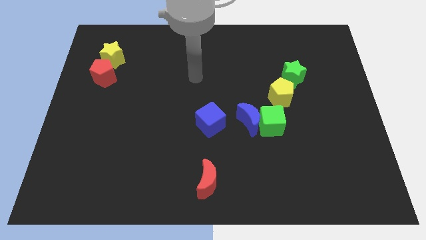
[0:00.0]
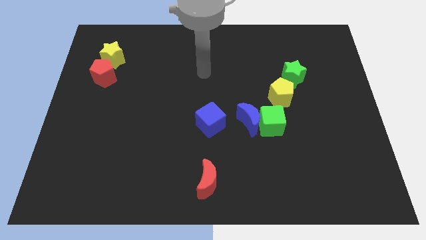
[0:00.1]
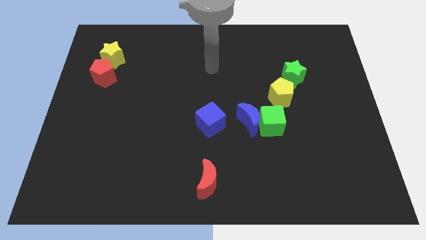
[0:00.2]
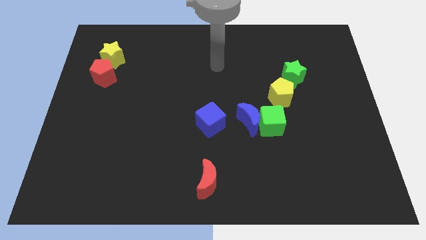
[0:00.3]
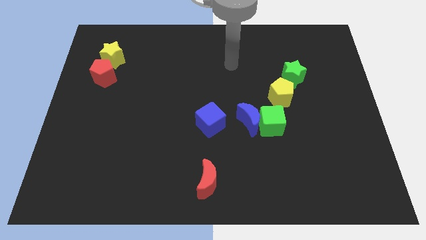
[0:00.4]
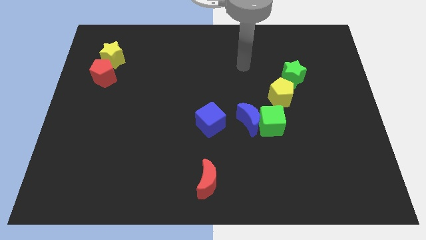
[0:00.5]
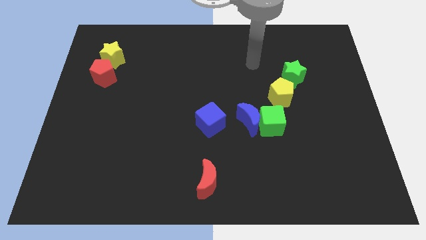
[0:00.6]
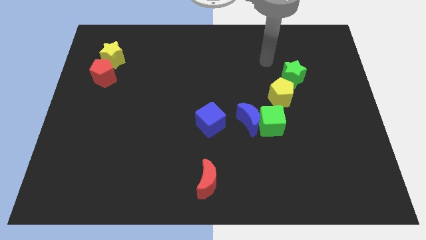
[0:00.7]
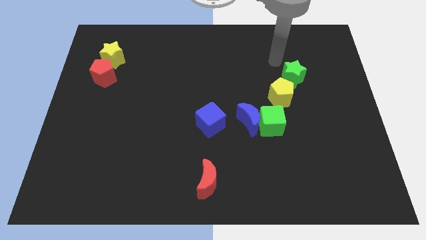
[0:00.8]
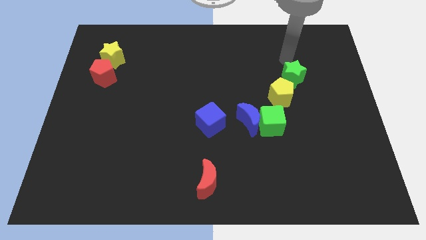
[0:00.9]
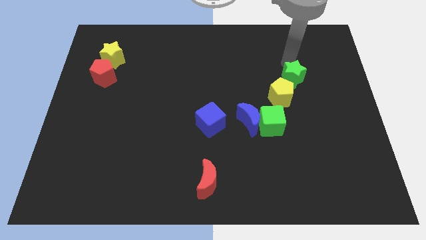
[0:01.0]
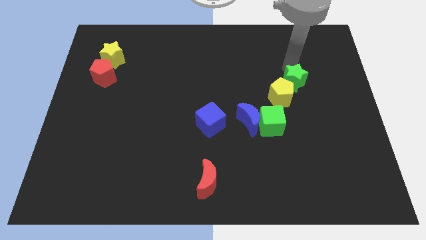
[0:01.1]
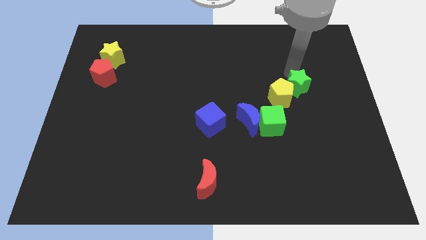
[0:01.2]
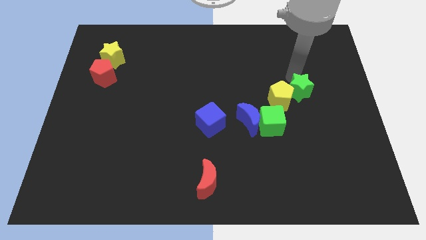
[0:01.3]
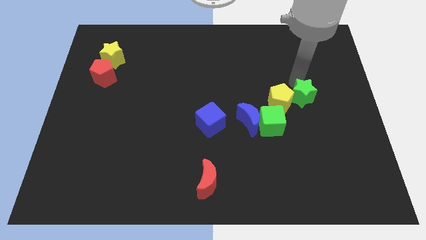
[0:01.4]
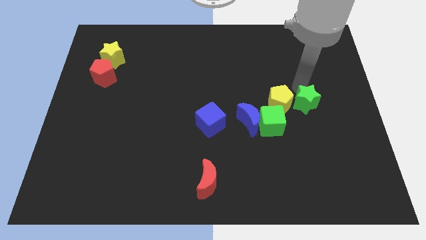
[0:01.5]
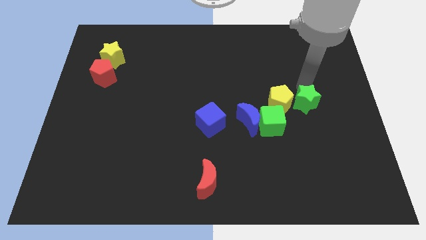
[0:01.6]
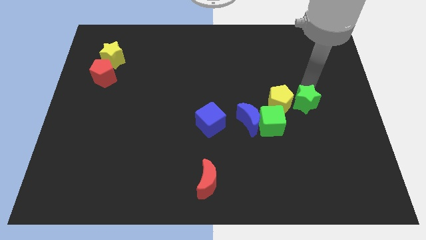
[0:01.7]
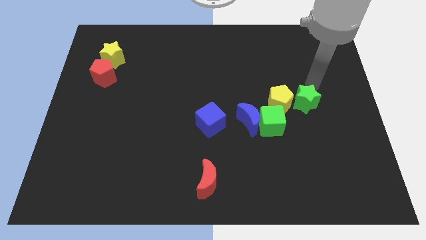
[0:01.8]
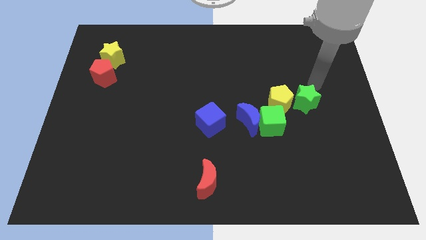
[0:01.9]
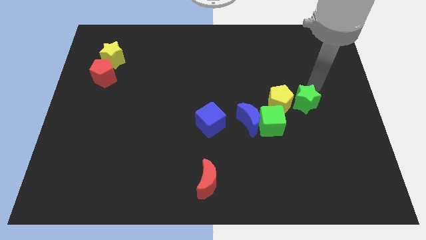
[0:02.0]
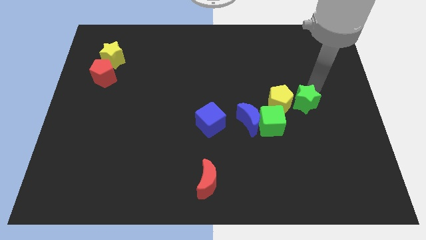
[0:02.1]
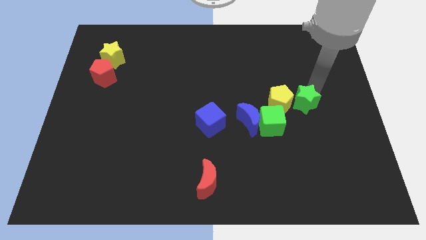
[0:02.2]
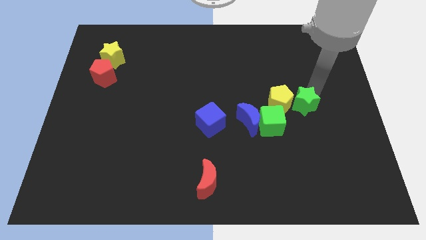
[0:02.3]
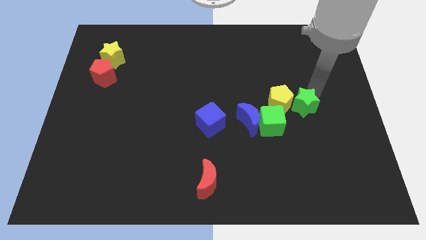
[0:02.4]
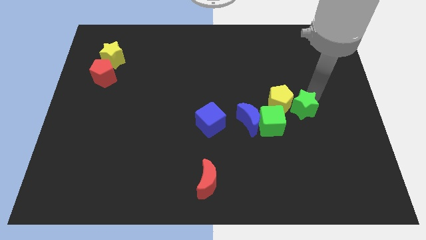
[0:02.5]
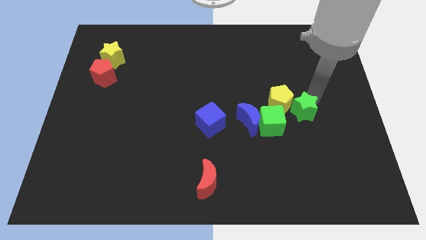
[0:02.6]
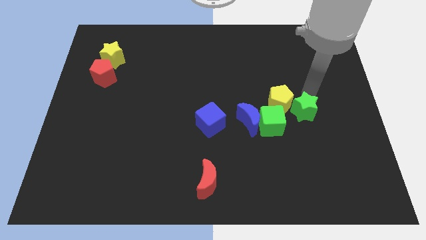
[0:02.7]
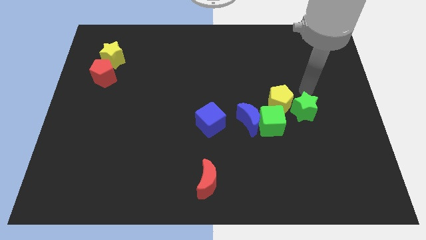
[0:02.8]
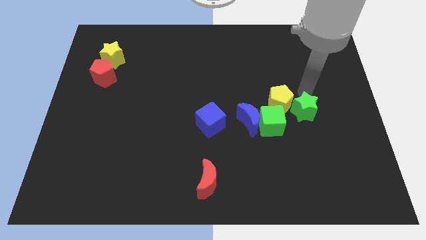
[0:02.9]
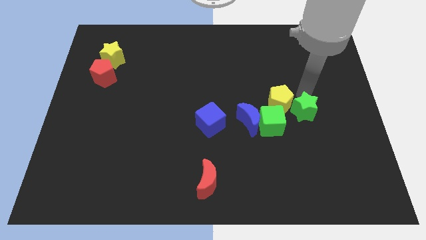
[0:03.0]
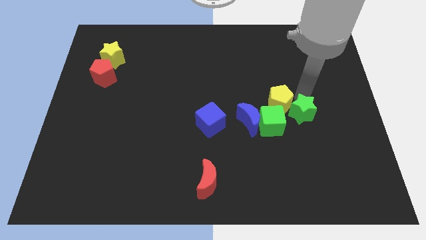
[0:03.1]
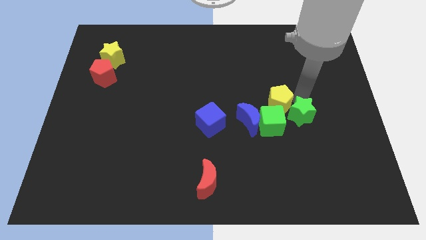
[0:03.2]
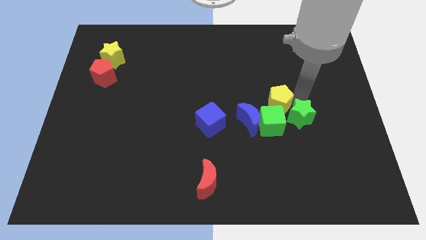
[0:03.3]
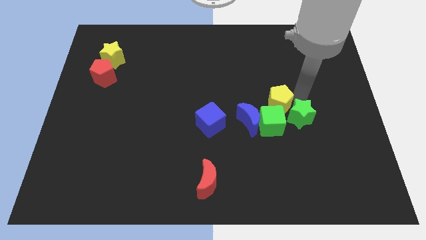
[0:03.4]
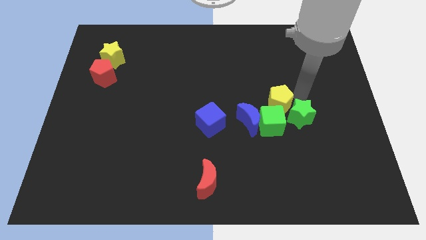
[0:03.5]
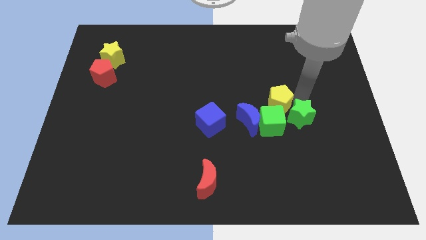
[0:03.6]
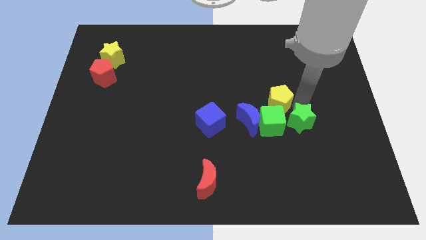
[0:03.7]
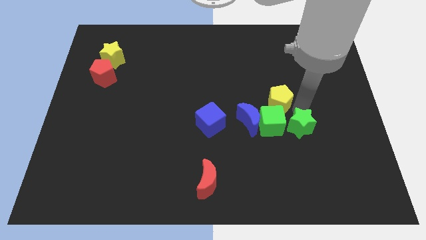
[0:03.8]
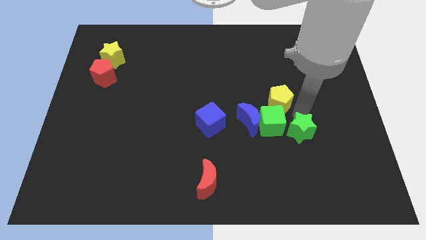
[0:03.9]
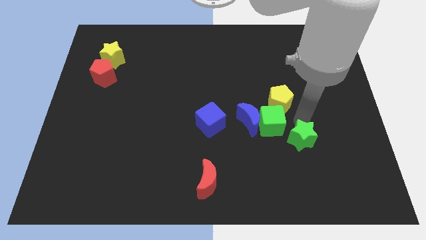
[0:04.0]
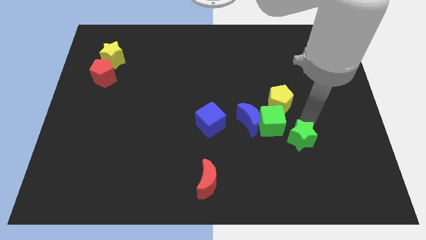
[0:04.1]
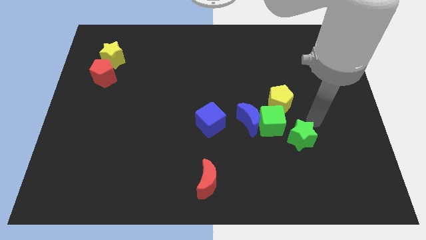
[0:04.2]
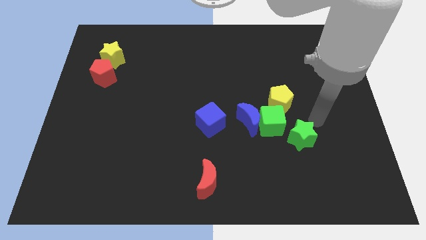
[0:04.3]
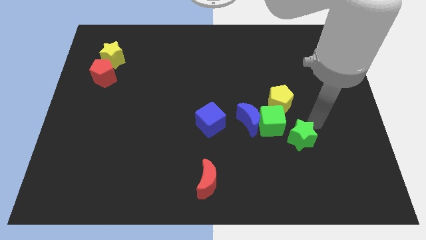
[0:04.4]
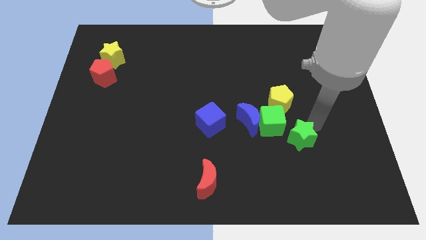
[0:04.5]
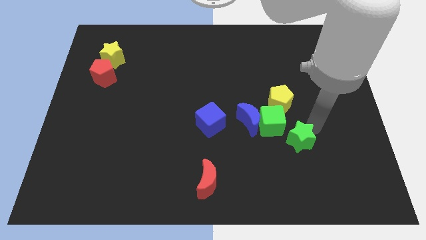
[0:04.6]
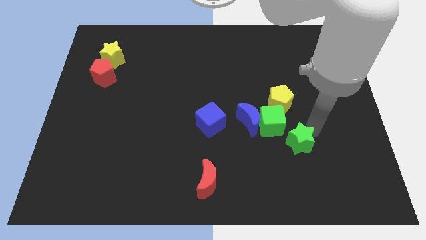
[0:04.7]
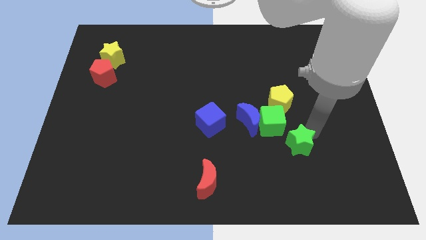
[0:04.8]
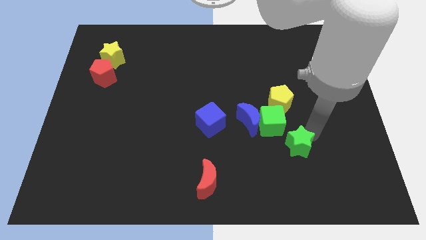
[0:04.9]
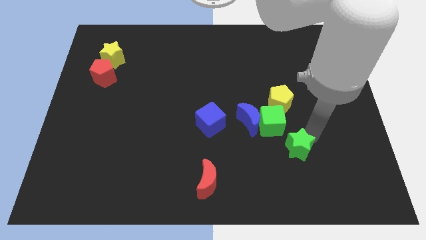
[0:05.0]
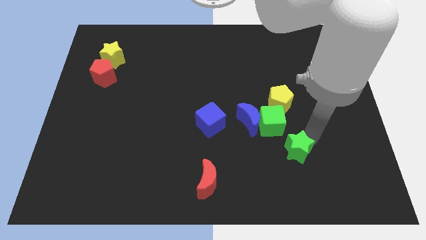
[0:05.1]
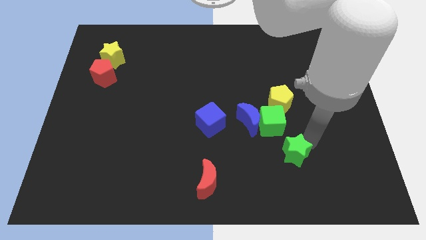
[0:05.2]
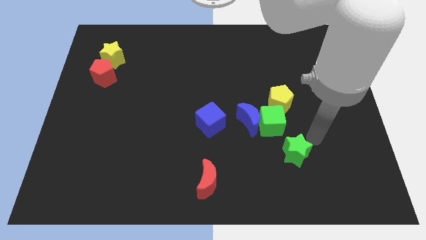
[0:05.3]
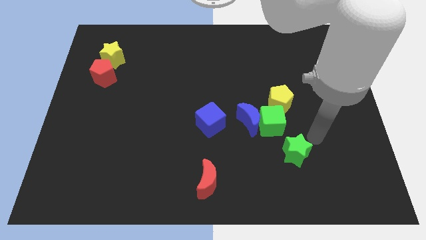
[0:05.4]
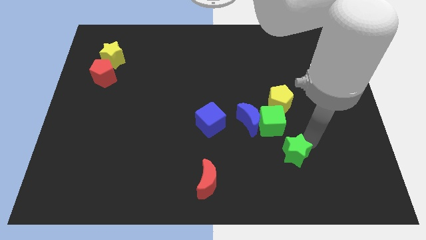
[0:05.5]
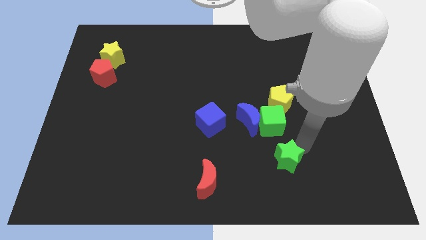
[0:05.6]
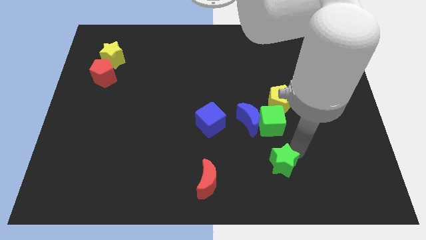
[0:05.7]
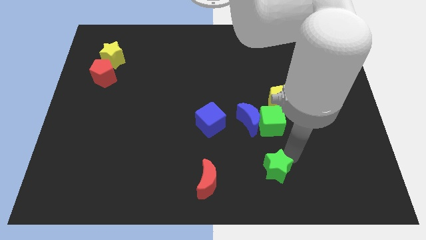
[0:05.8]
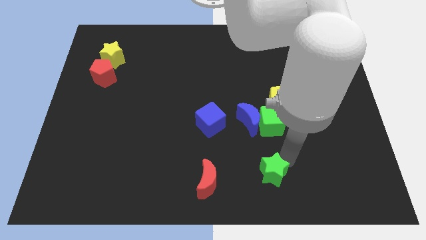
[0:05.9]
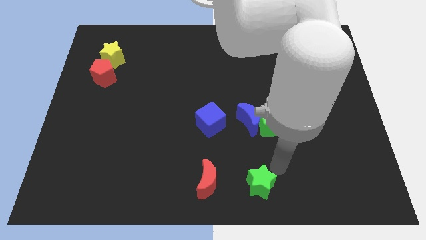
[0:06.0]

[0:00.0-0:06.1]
slide the green star to the bottom

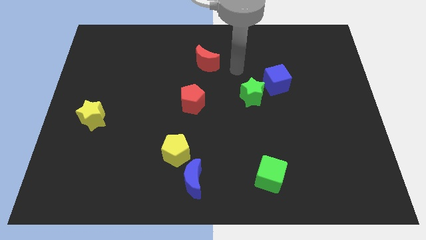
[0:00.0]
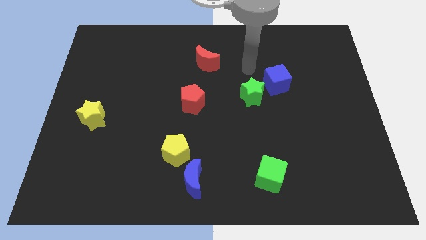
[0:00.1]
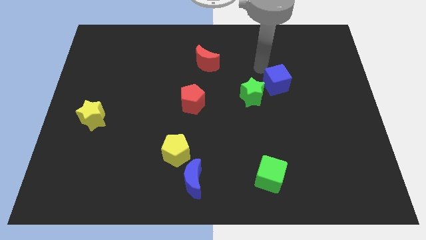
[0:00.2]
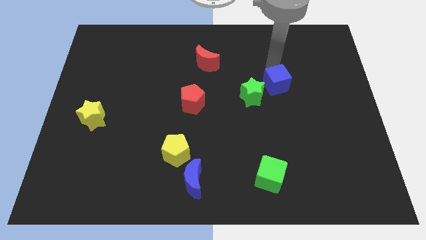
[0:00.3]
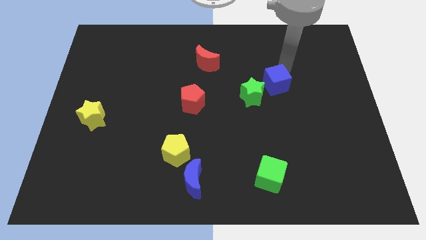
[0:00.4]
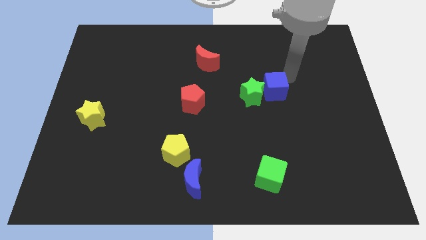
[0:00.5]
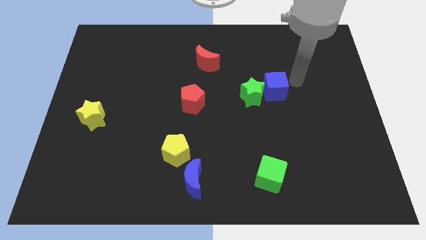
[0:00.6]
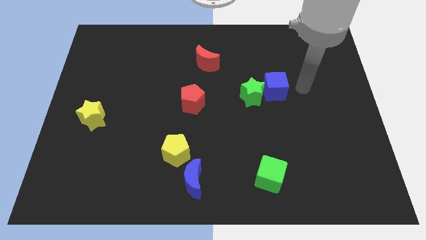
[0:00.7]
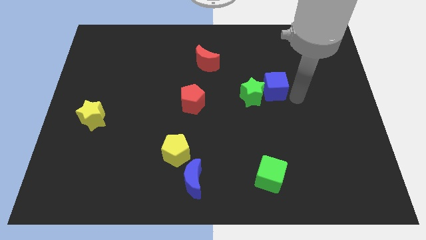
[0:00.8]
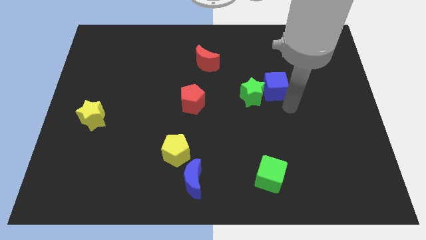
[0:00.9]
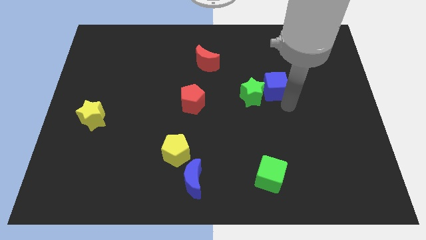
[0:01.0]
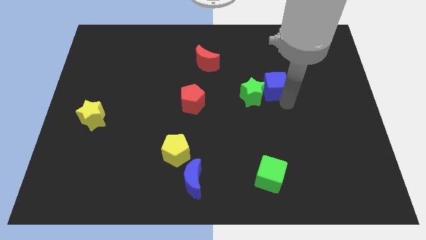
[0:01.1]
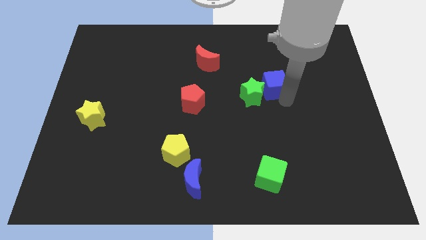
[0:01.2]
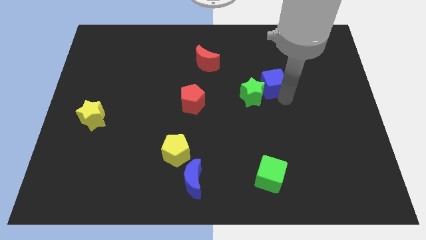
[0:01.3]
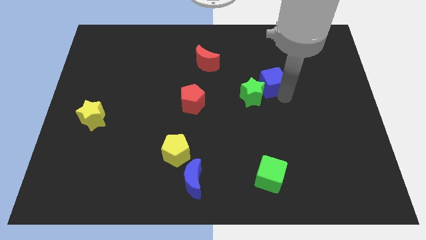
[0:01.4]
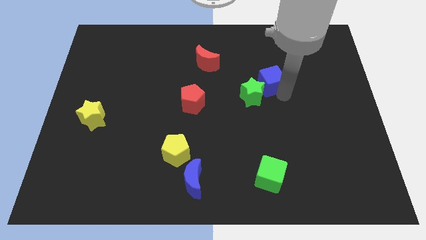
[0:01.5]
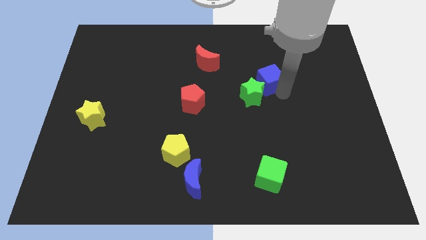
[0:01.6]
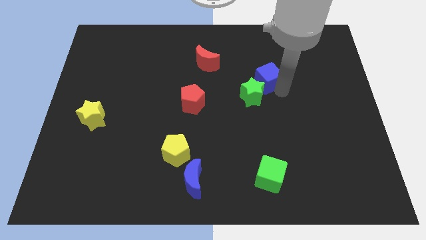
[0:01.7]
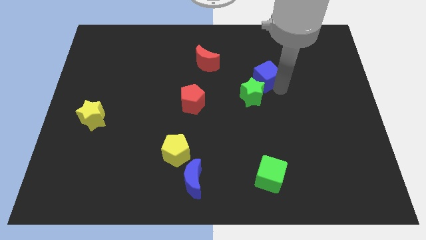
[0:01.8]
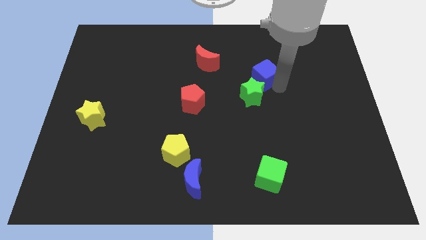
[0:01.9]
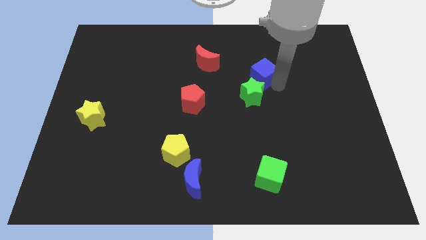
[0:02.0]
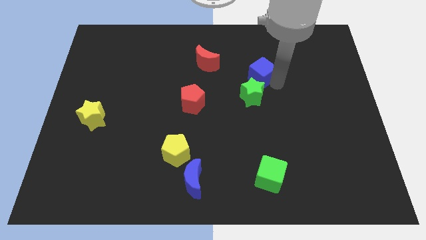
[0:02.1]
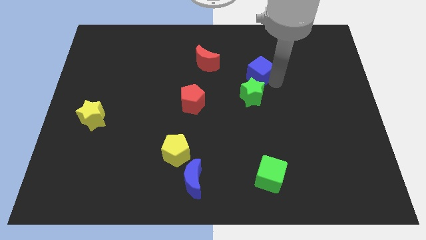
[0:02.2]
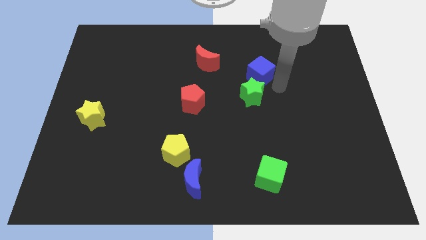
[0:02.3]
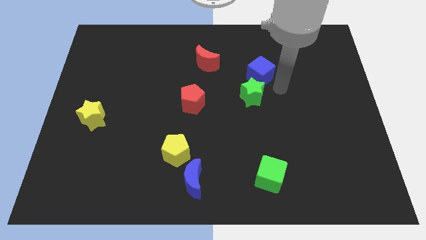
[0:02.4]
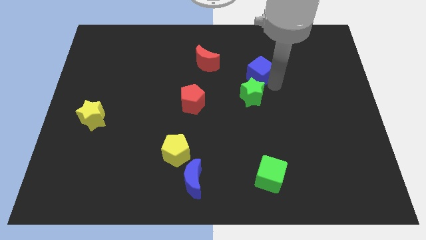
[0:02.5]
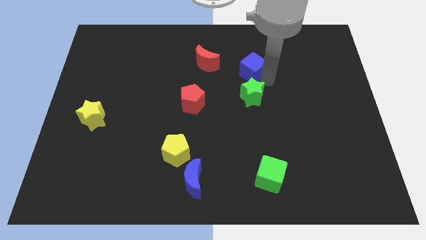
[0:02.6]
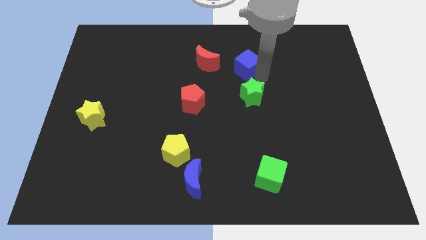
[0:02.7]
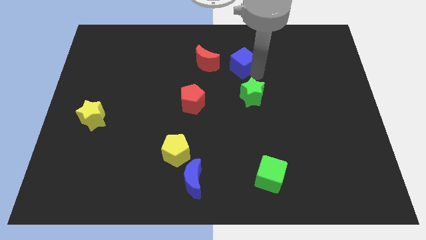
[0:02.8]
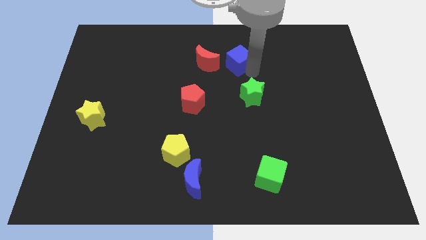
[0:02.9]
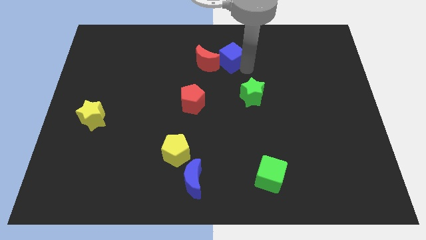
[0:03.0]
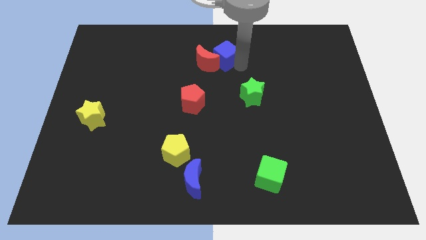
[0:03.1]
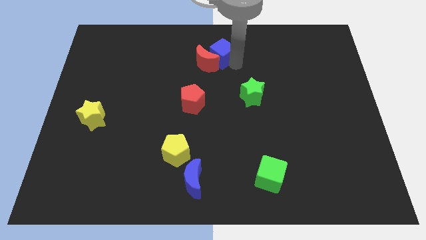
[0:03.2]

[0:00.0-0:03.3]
put the blue cube to the towards your base
